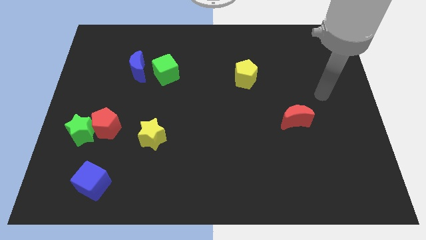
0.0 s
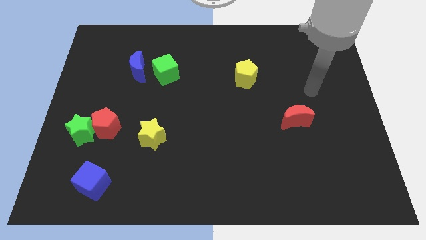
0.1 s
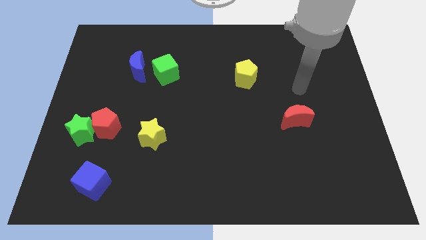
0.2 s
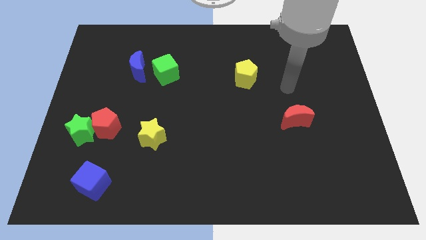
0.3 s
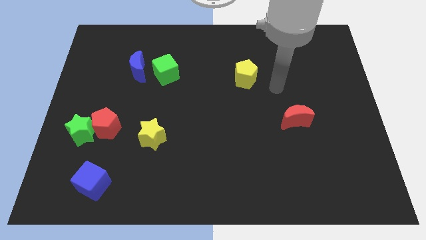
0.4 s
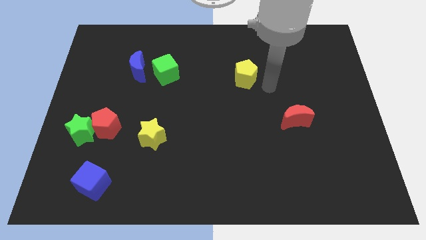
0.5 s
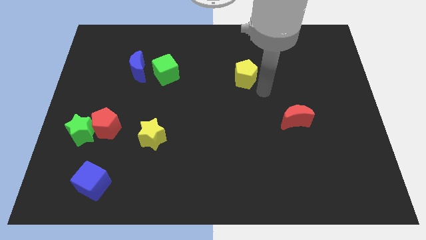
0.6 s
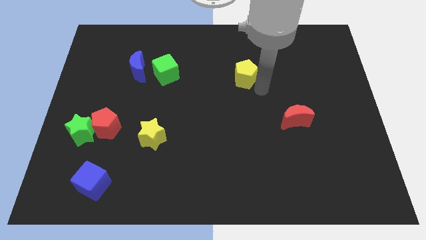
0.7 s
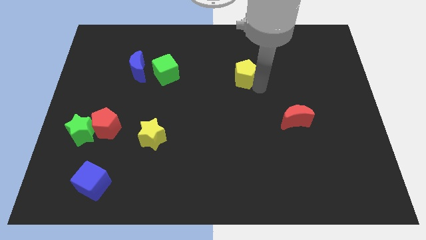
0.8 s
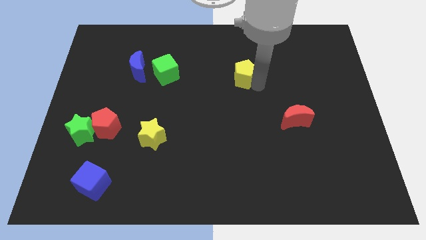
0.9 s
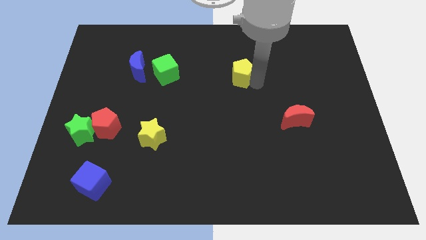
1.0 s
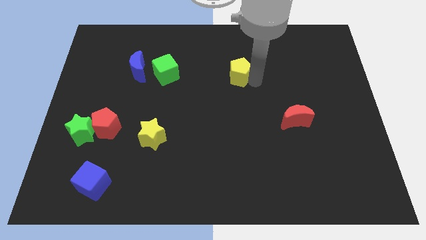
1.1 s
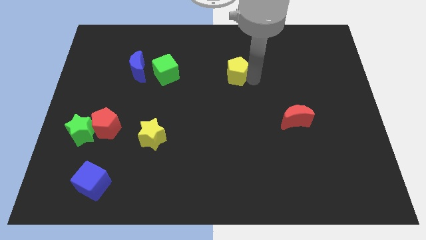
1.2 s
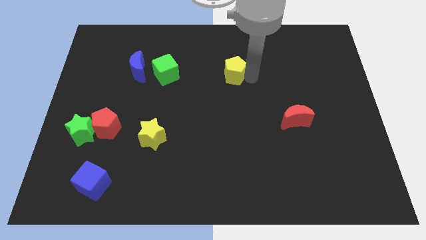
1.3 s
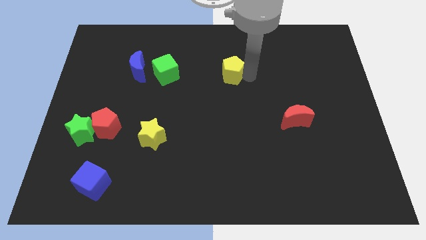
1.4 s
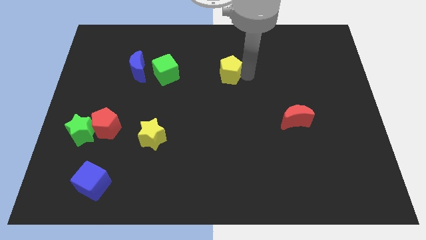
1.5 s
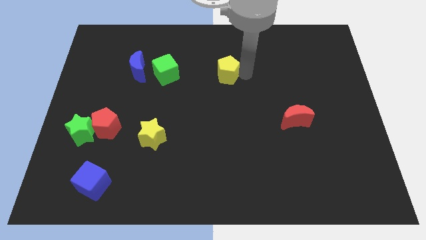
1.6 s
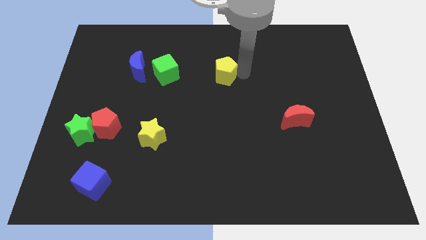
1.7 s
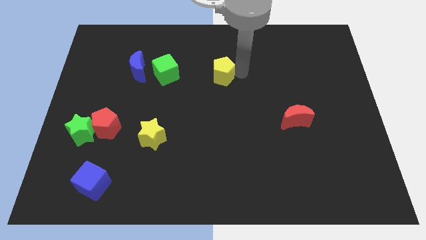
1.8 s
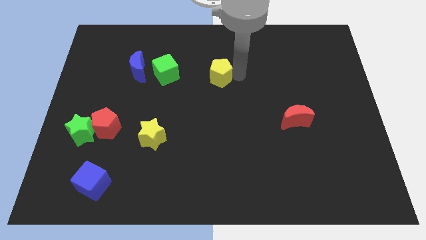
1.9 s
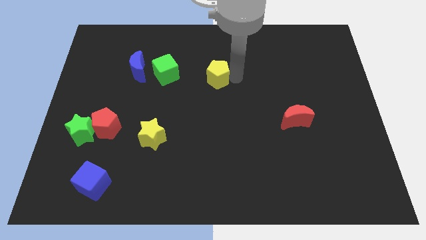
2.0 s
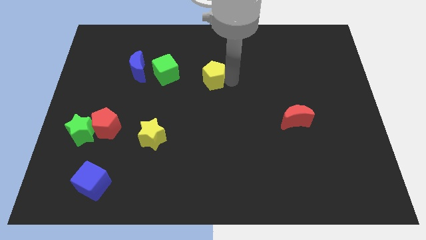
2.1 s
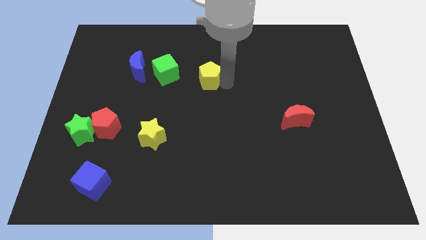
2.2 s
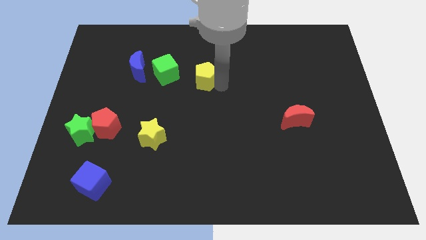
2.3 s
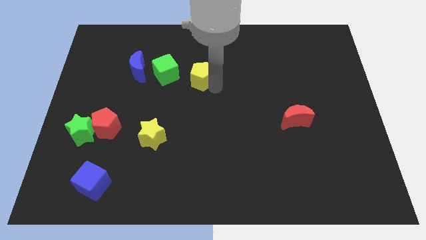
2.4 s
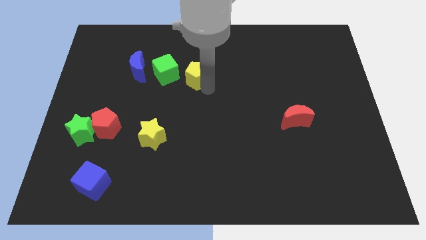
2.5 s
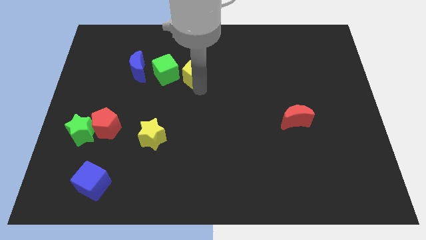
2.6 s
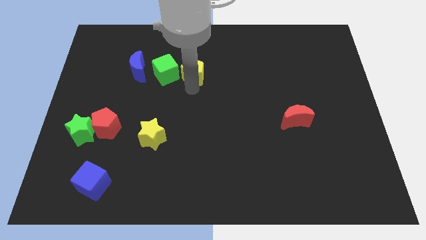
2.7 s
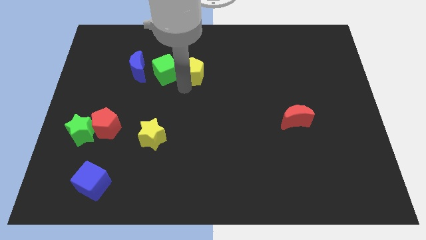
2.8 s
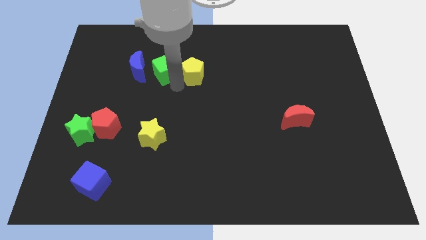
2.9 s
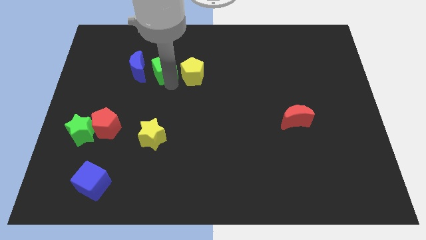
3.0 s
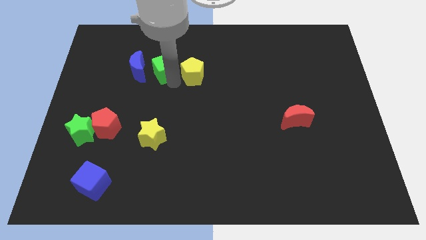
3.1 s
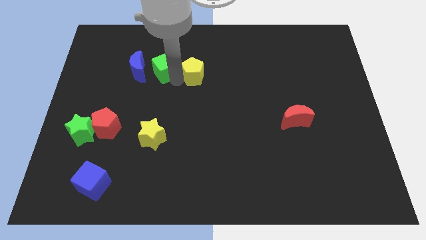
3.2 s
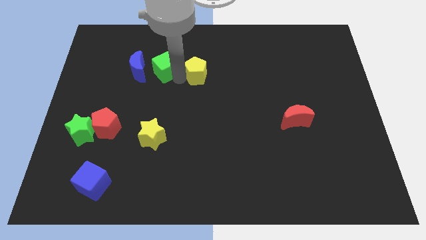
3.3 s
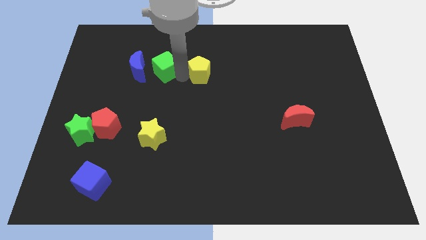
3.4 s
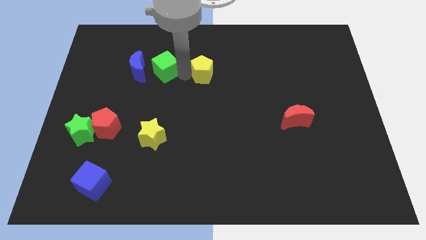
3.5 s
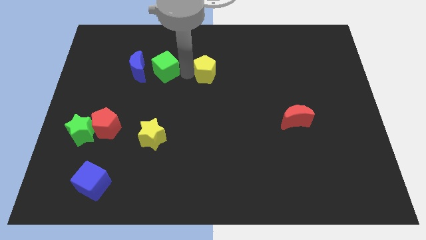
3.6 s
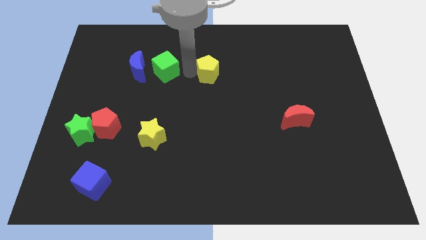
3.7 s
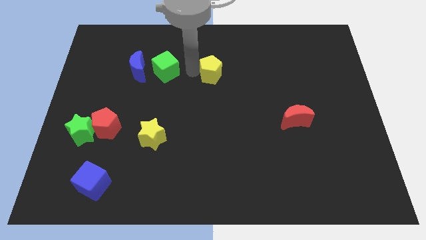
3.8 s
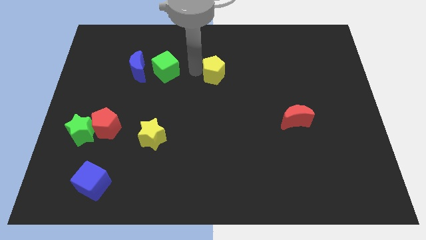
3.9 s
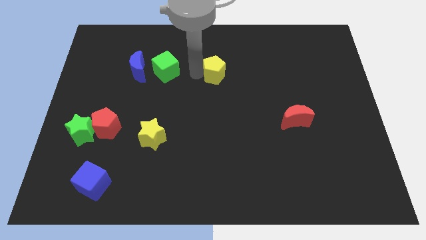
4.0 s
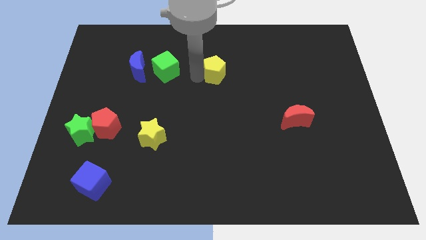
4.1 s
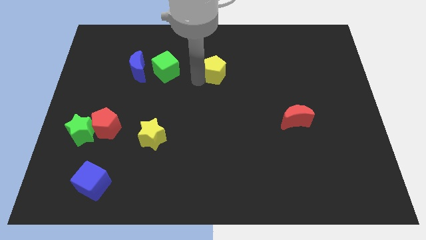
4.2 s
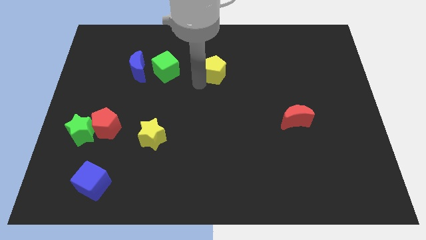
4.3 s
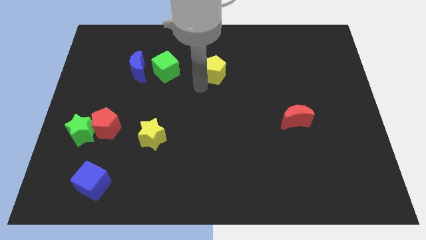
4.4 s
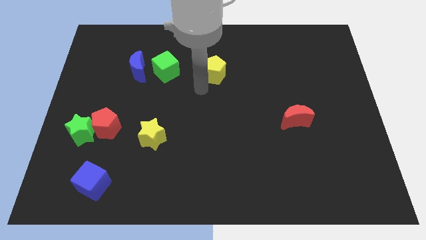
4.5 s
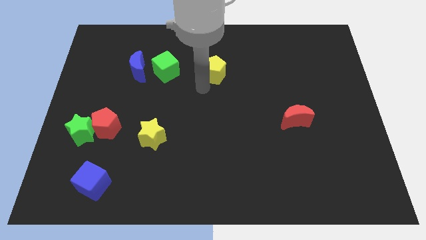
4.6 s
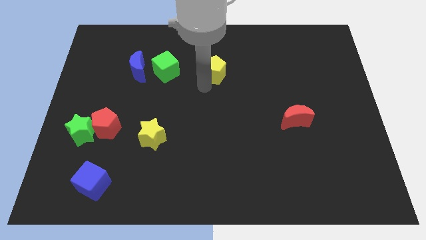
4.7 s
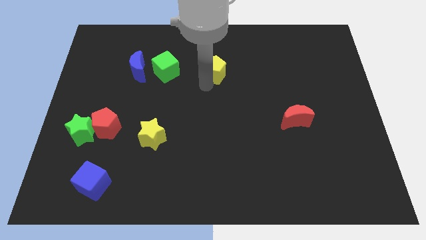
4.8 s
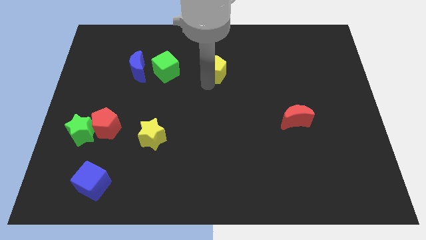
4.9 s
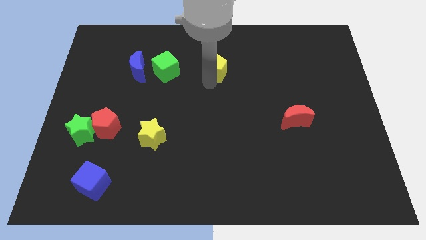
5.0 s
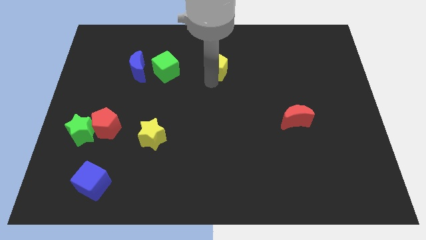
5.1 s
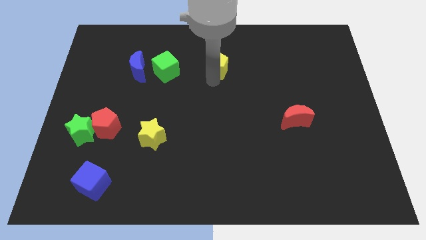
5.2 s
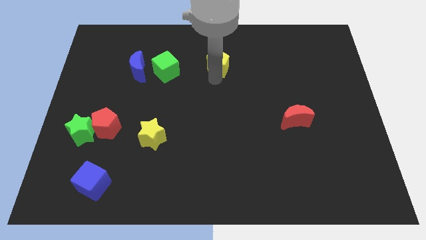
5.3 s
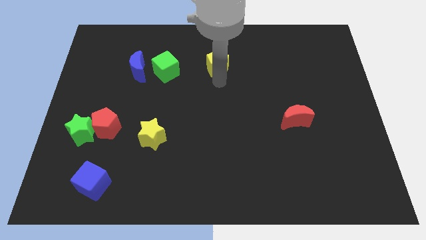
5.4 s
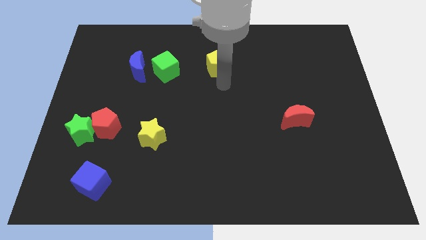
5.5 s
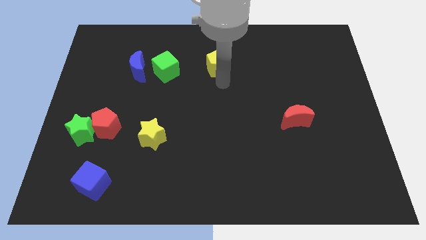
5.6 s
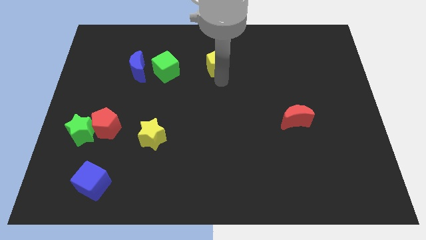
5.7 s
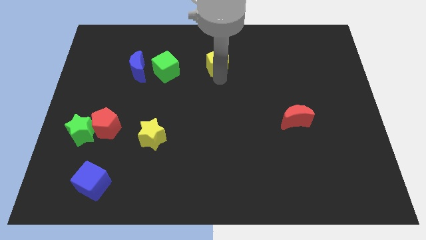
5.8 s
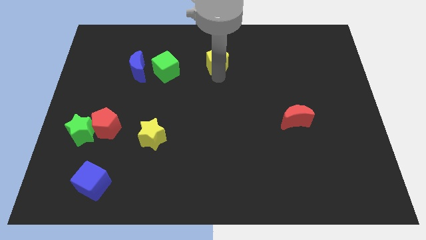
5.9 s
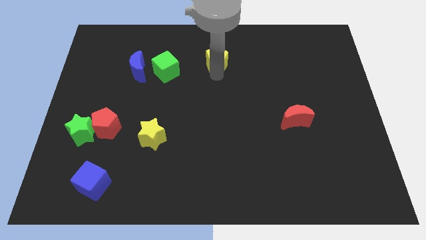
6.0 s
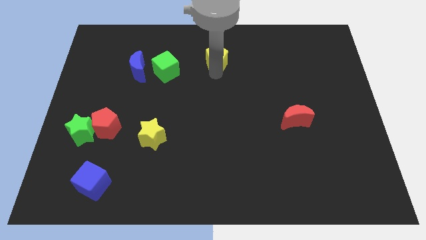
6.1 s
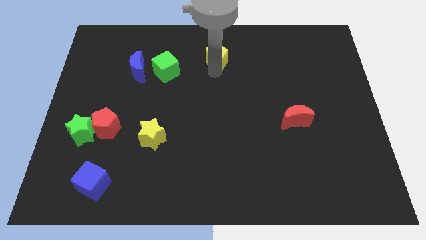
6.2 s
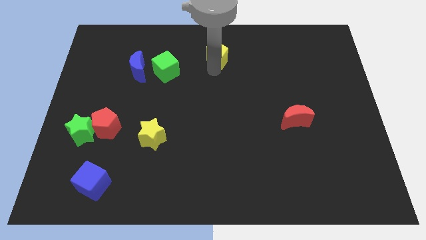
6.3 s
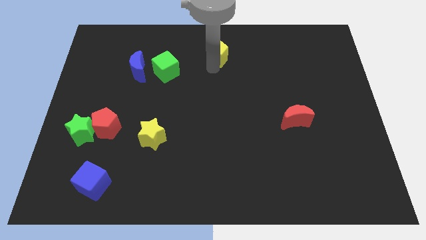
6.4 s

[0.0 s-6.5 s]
push the yellow pentagon to the towards your base

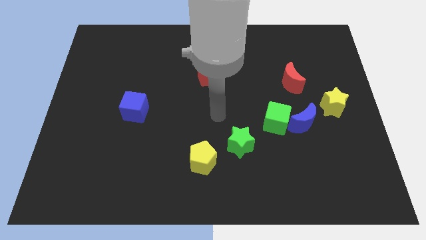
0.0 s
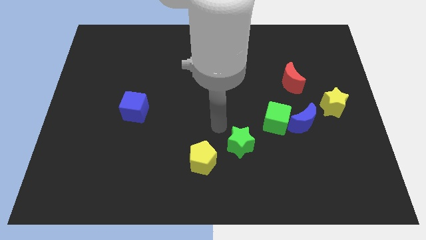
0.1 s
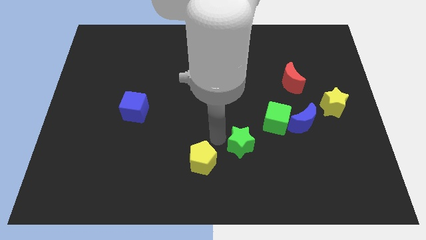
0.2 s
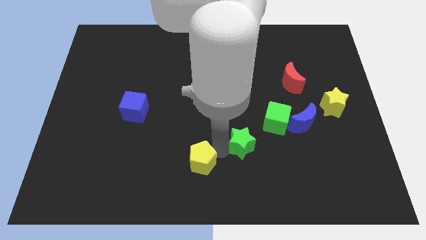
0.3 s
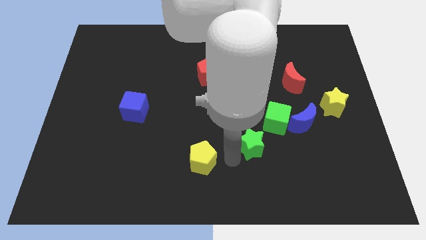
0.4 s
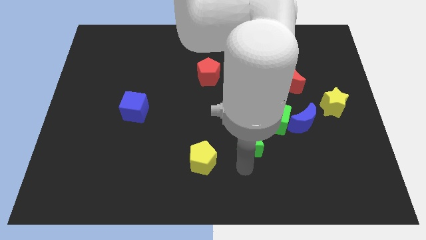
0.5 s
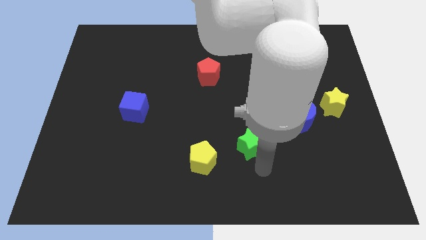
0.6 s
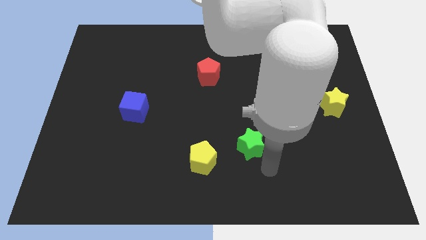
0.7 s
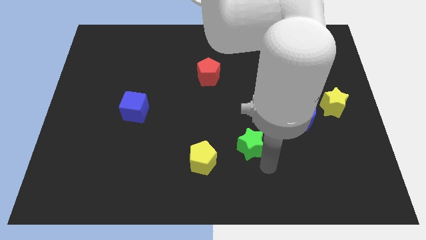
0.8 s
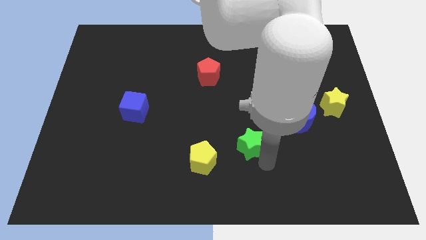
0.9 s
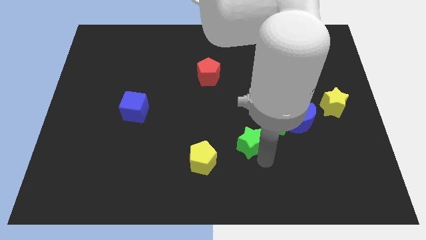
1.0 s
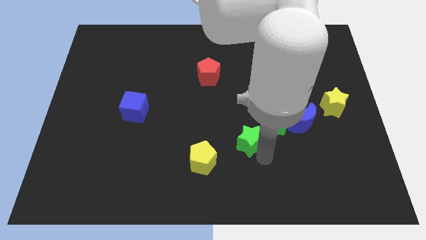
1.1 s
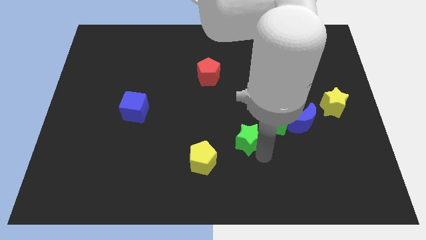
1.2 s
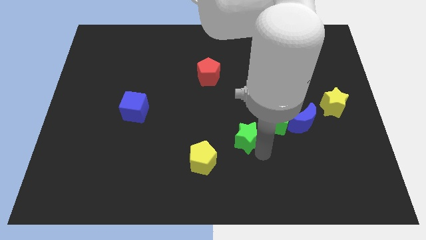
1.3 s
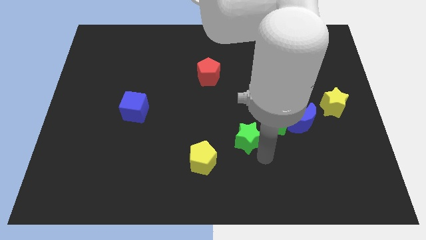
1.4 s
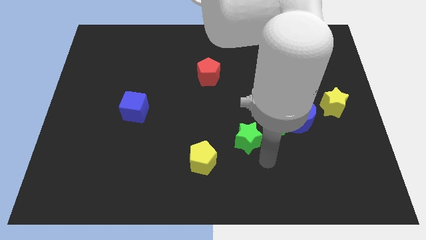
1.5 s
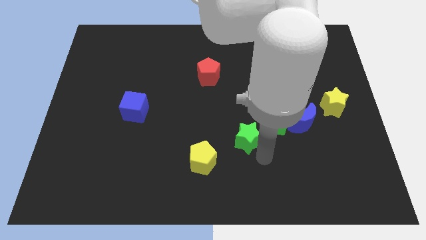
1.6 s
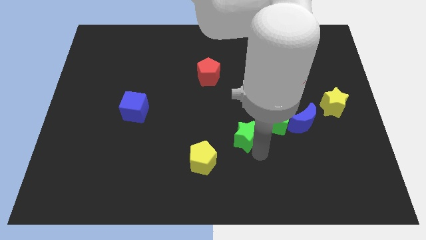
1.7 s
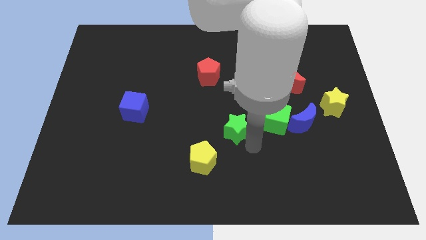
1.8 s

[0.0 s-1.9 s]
put the green star to the center
